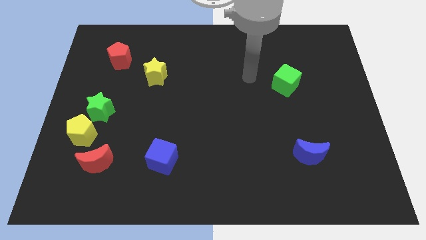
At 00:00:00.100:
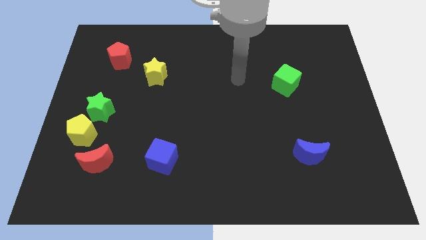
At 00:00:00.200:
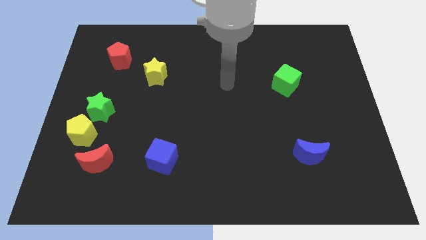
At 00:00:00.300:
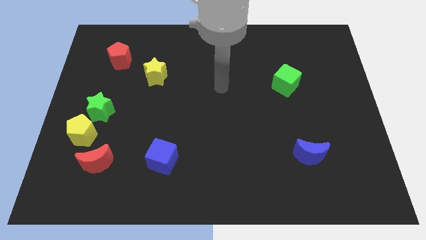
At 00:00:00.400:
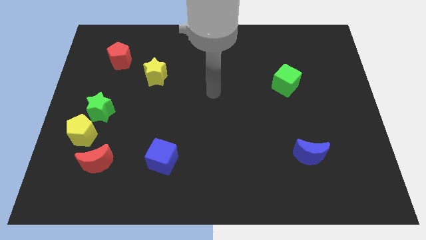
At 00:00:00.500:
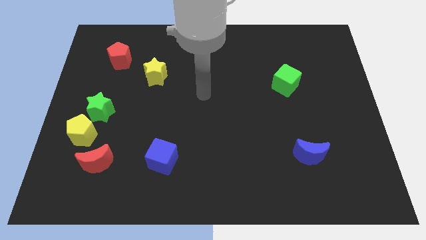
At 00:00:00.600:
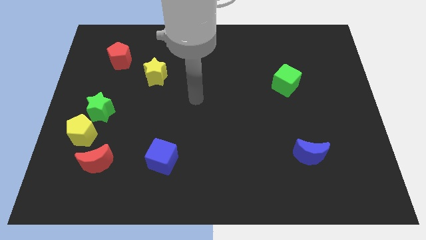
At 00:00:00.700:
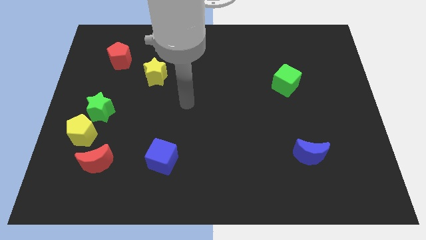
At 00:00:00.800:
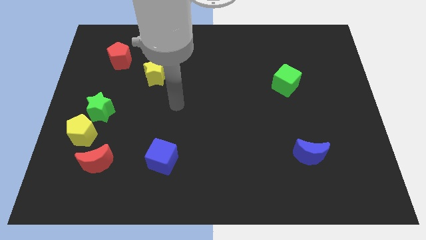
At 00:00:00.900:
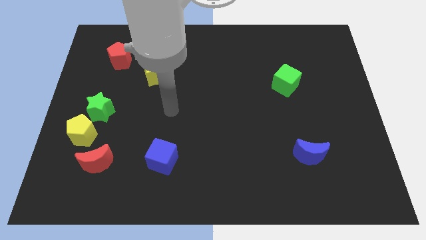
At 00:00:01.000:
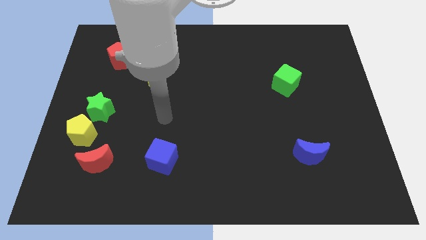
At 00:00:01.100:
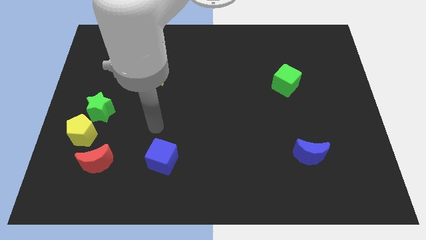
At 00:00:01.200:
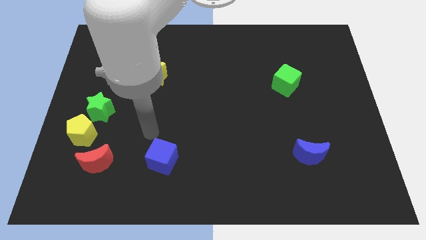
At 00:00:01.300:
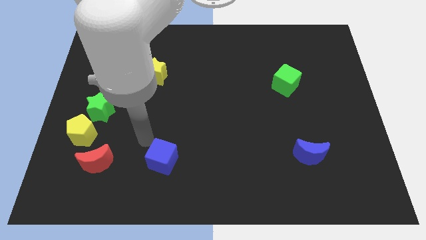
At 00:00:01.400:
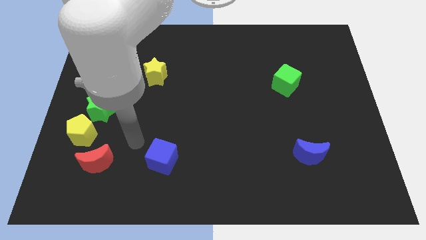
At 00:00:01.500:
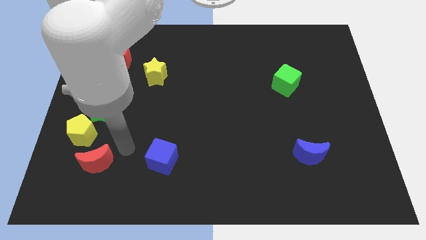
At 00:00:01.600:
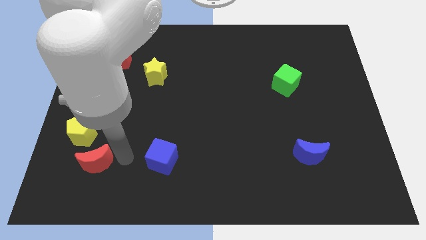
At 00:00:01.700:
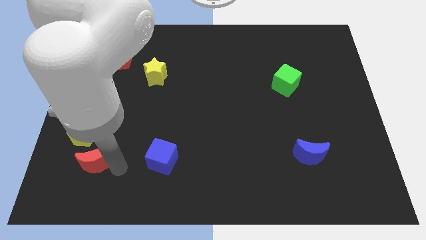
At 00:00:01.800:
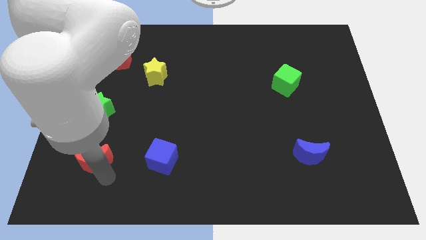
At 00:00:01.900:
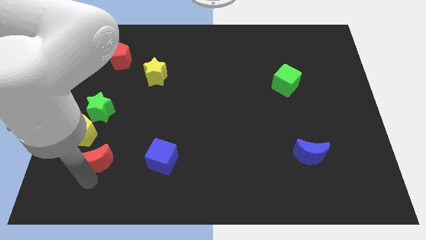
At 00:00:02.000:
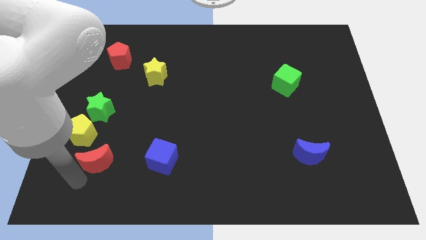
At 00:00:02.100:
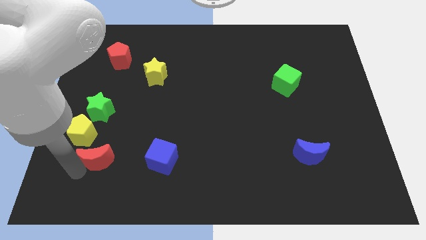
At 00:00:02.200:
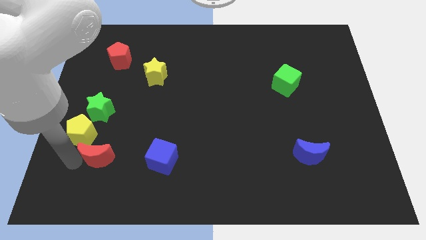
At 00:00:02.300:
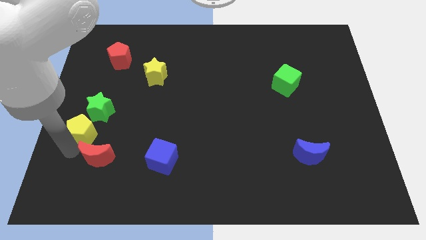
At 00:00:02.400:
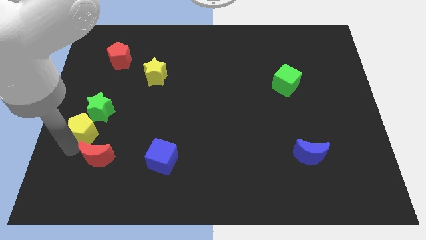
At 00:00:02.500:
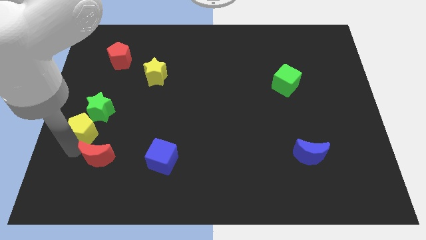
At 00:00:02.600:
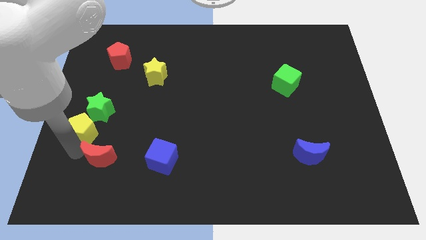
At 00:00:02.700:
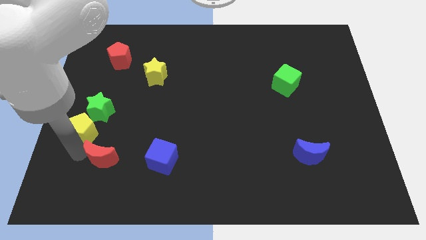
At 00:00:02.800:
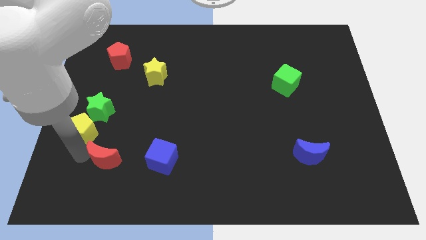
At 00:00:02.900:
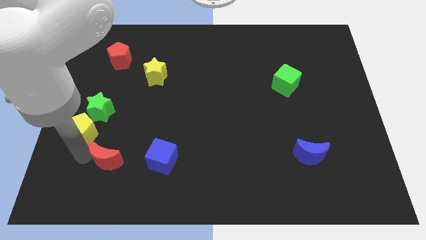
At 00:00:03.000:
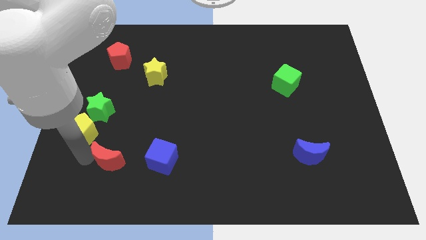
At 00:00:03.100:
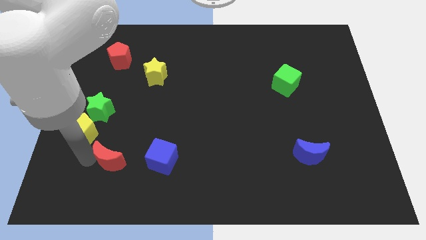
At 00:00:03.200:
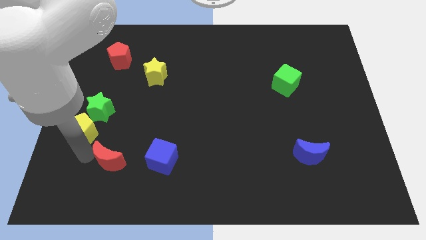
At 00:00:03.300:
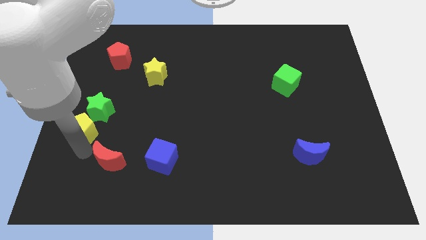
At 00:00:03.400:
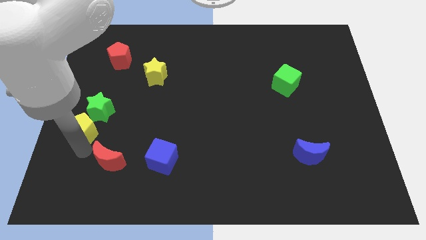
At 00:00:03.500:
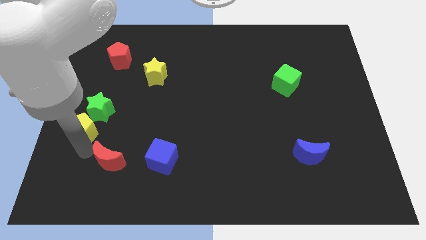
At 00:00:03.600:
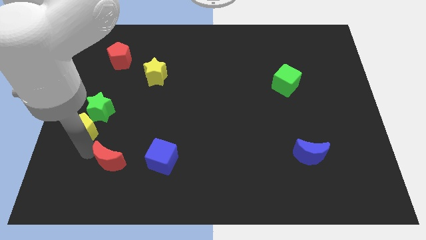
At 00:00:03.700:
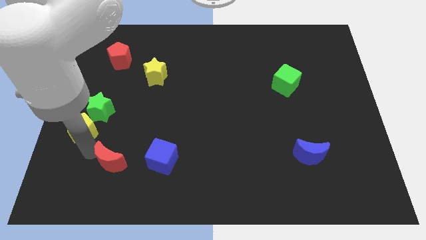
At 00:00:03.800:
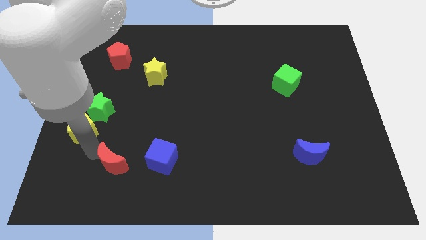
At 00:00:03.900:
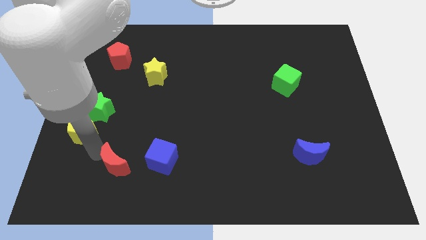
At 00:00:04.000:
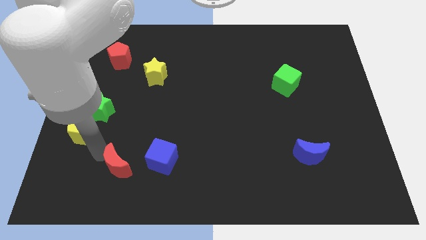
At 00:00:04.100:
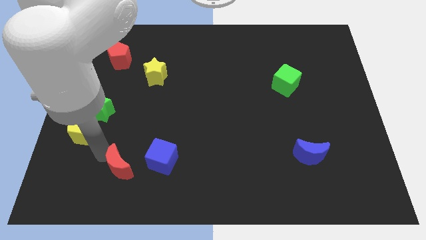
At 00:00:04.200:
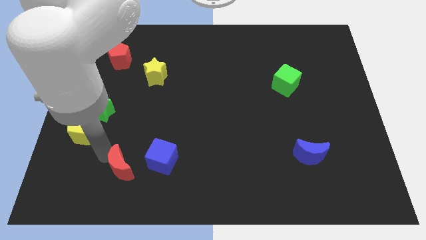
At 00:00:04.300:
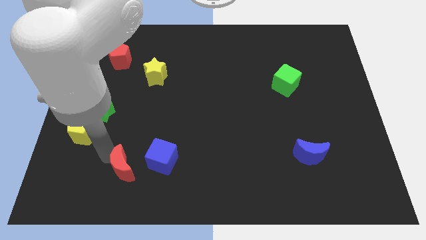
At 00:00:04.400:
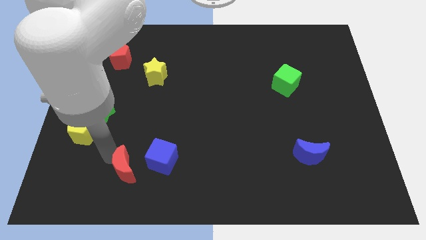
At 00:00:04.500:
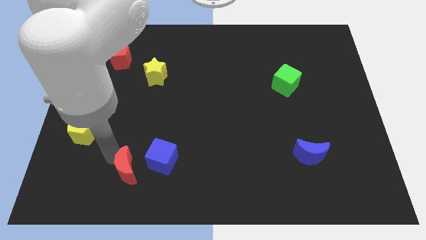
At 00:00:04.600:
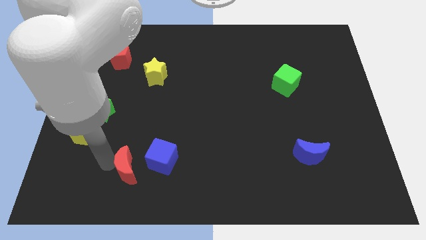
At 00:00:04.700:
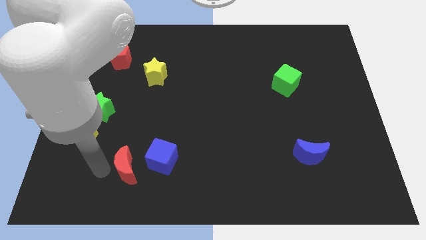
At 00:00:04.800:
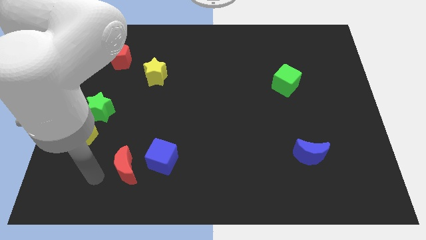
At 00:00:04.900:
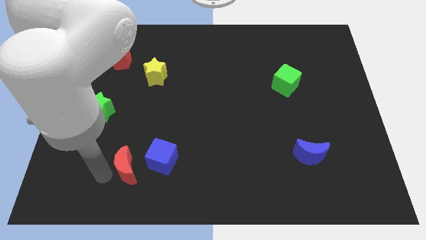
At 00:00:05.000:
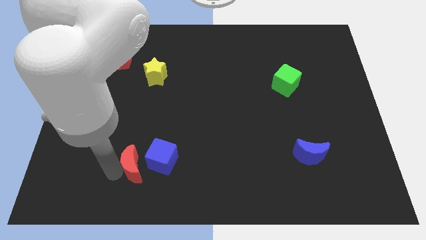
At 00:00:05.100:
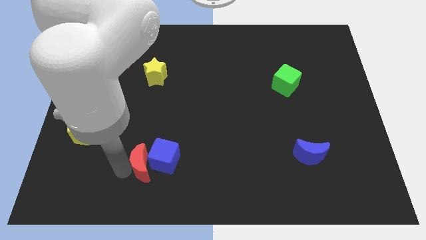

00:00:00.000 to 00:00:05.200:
put the red moon towards the blue cube
